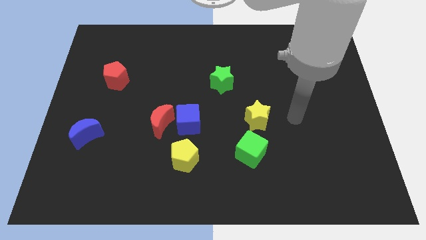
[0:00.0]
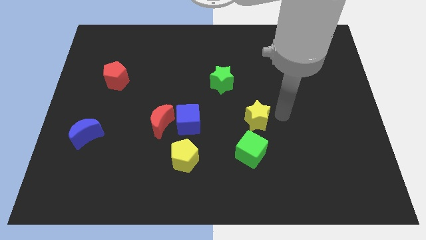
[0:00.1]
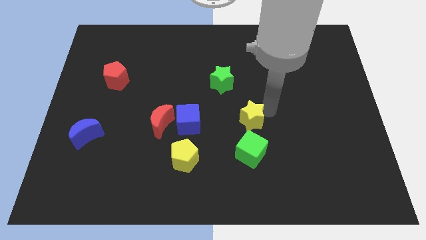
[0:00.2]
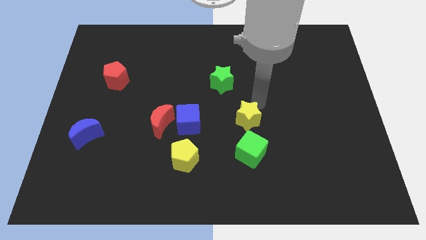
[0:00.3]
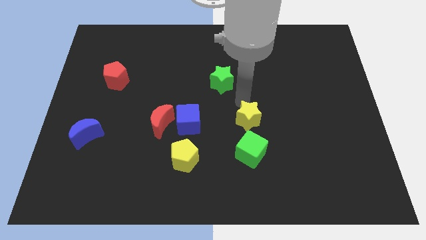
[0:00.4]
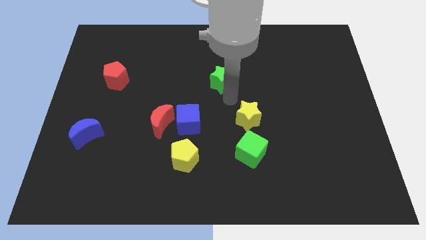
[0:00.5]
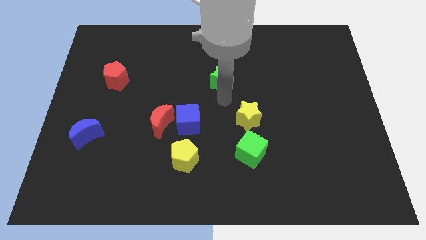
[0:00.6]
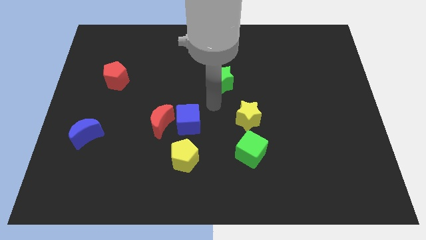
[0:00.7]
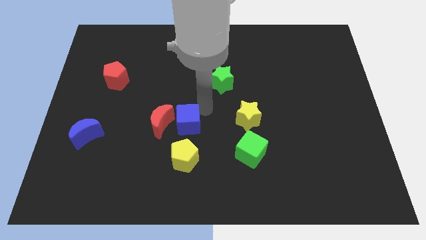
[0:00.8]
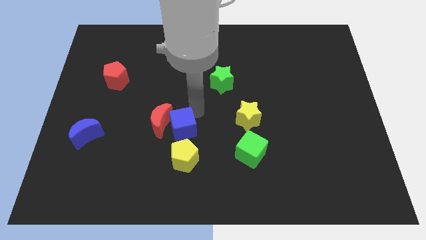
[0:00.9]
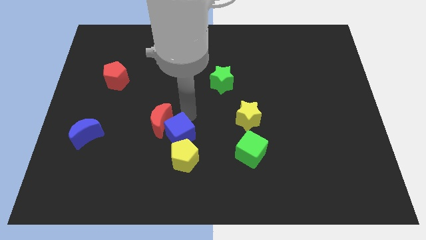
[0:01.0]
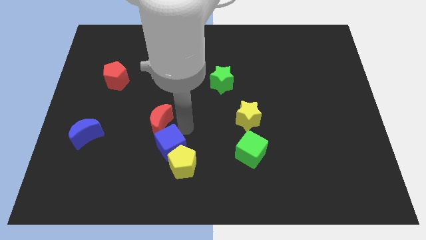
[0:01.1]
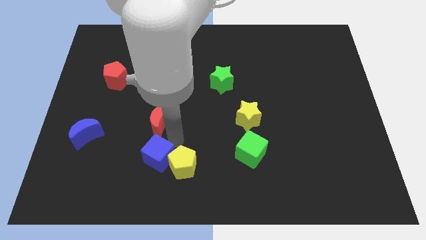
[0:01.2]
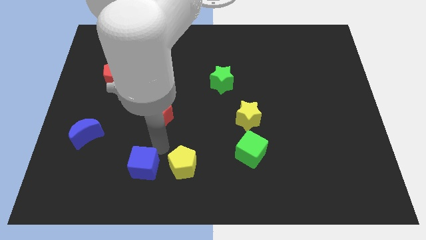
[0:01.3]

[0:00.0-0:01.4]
pull the red moon apart from the blue cube

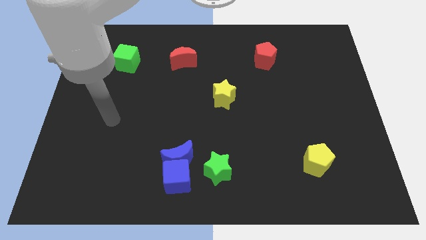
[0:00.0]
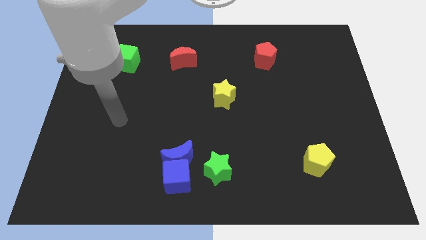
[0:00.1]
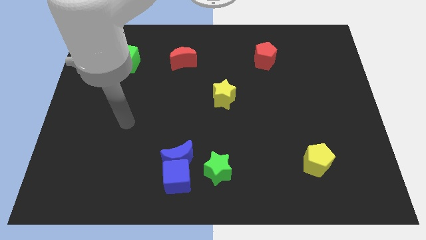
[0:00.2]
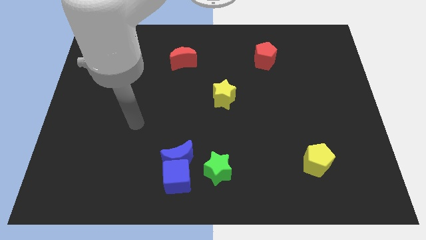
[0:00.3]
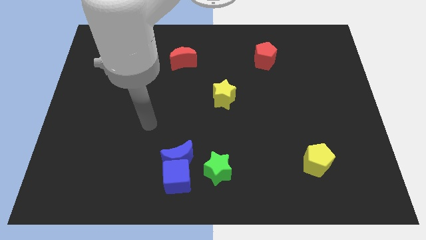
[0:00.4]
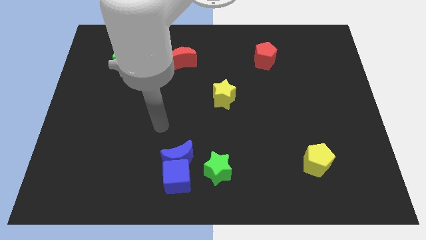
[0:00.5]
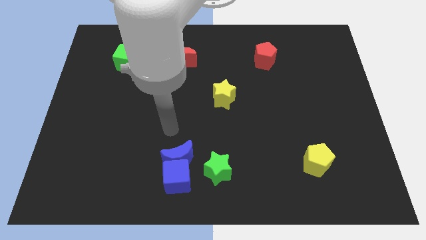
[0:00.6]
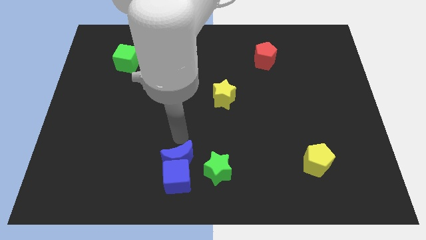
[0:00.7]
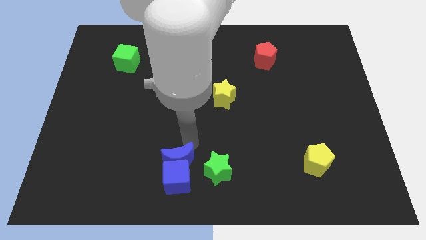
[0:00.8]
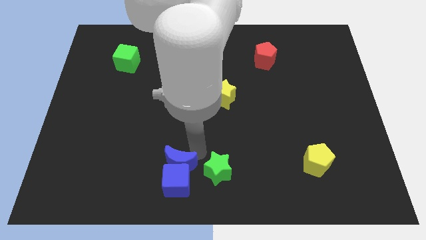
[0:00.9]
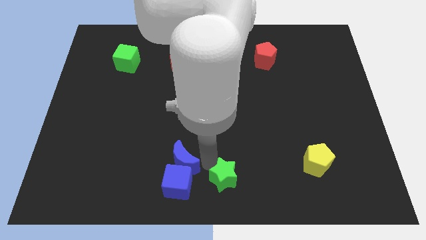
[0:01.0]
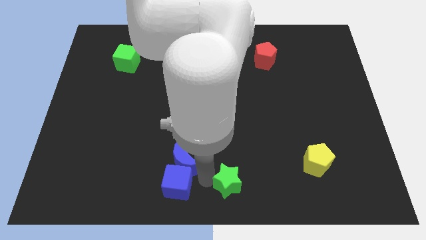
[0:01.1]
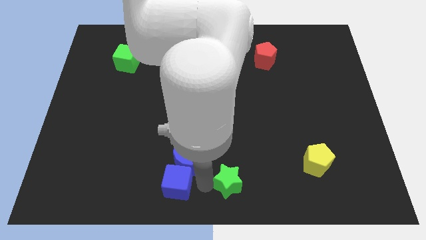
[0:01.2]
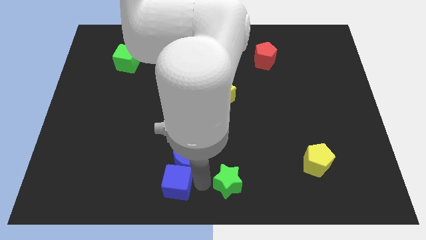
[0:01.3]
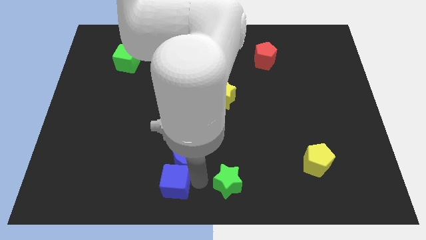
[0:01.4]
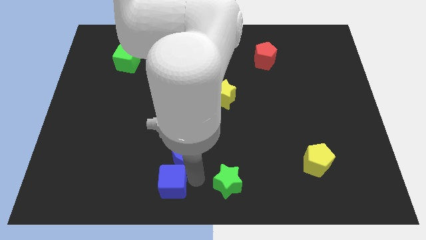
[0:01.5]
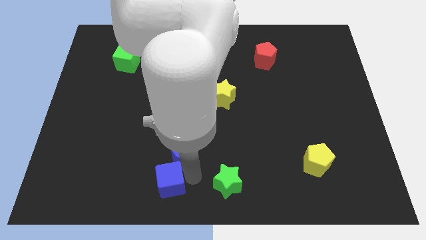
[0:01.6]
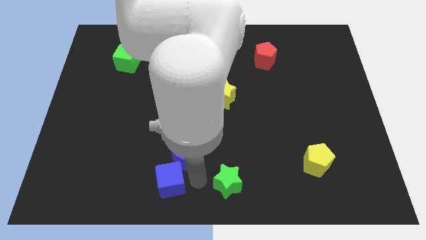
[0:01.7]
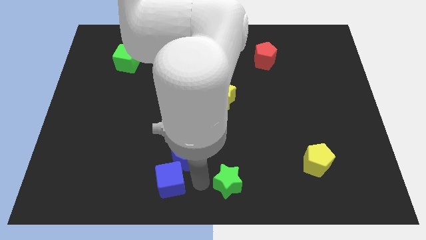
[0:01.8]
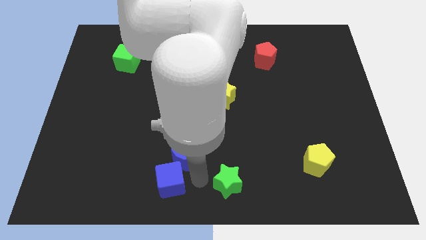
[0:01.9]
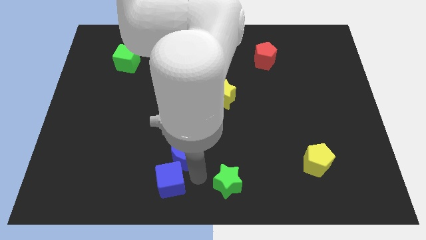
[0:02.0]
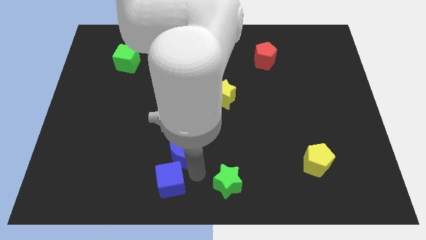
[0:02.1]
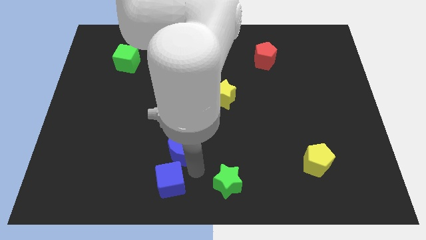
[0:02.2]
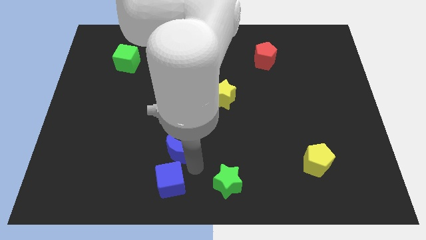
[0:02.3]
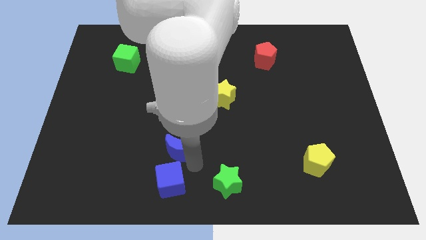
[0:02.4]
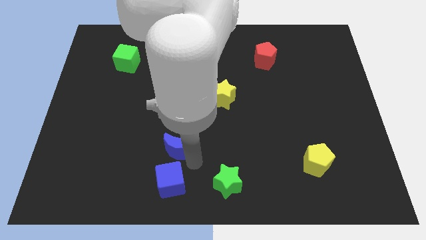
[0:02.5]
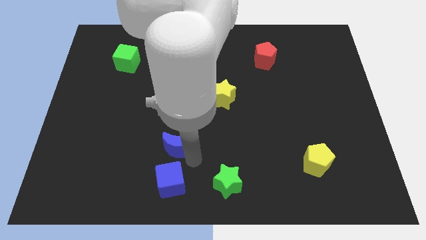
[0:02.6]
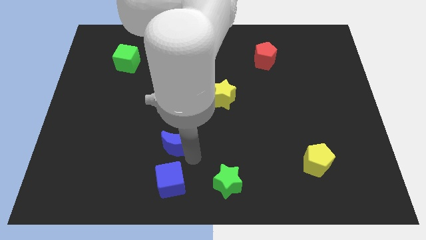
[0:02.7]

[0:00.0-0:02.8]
move the blue moon away from the blue cube and green star

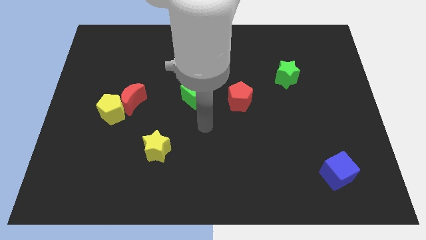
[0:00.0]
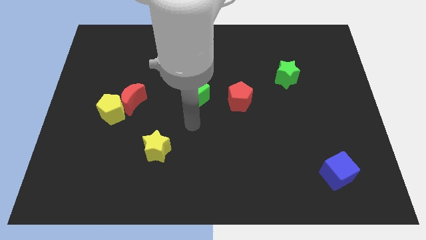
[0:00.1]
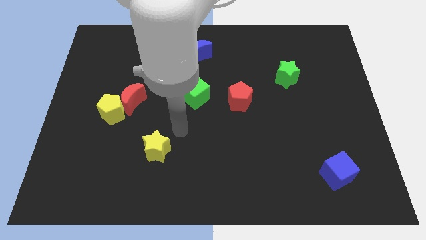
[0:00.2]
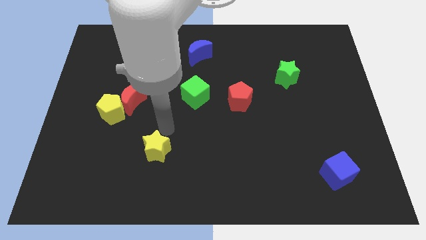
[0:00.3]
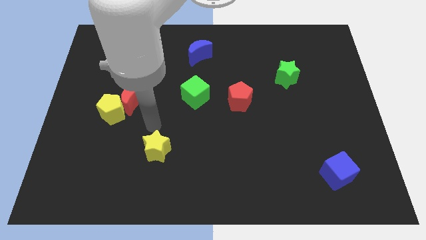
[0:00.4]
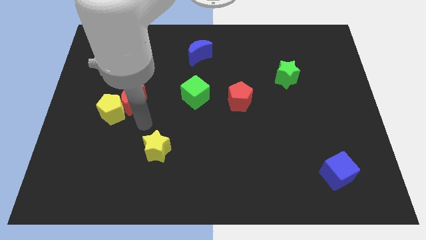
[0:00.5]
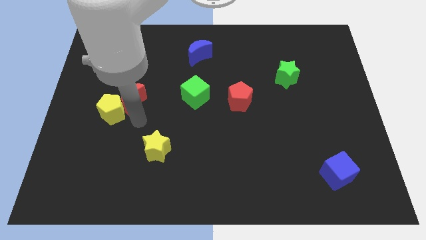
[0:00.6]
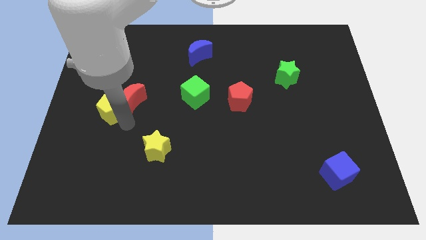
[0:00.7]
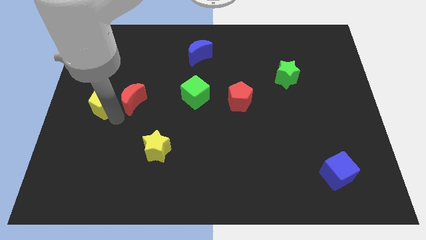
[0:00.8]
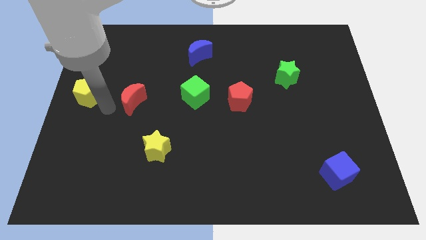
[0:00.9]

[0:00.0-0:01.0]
separate the red moon from the yellow pentagon

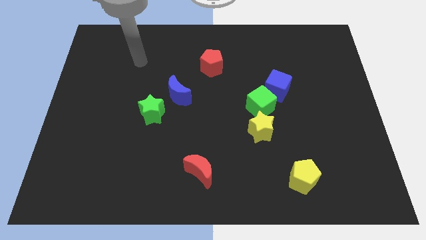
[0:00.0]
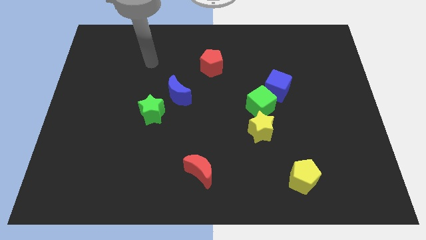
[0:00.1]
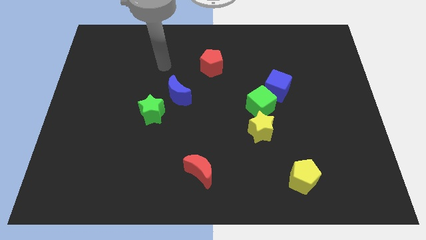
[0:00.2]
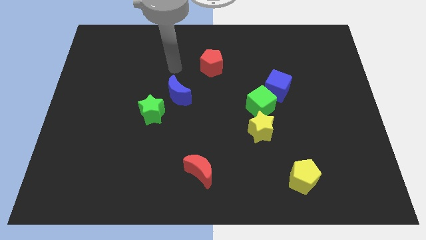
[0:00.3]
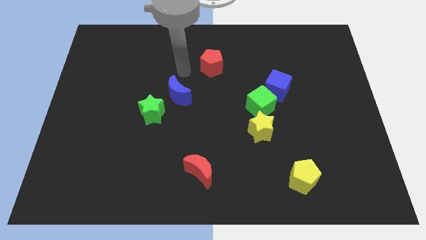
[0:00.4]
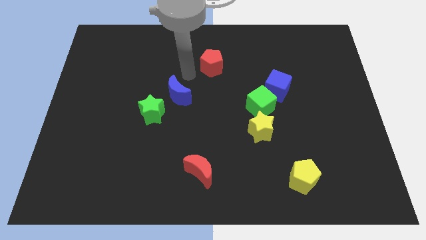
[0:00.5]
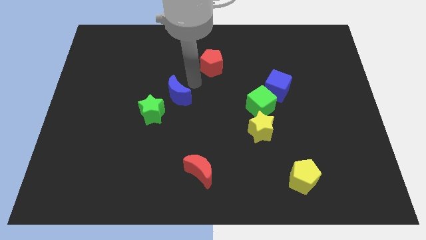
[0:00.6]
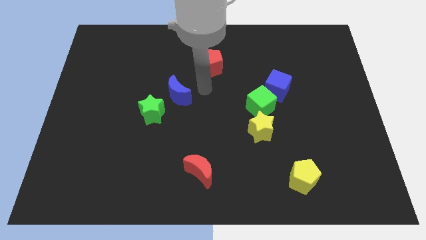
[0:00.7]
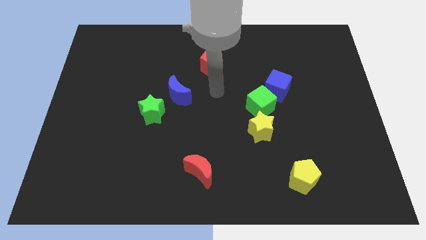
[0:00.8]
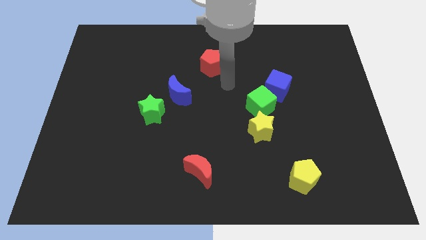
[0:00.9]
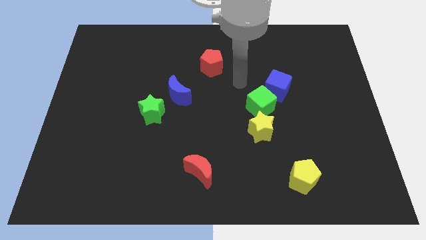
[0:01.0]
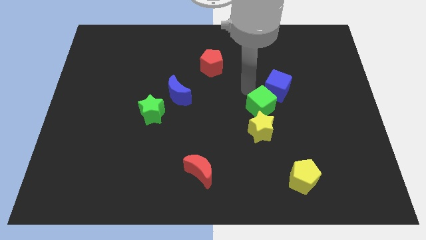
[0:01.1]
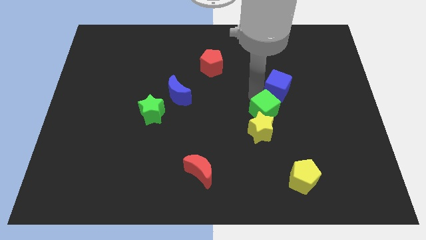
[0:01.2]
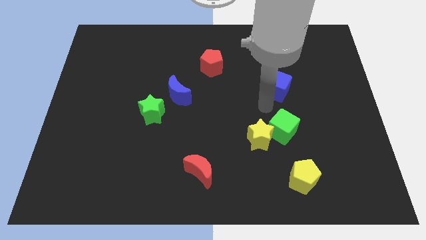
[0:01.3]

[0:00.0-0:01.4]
move the blue cube away from the green cube

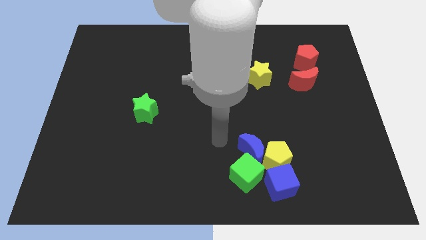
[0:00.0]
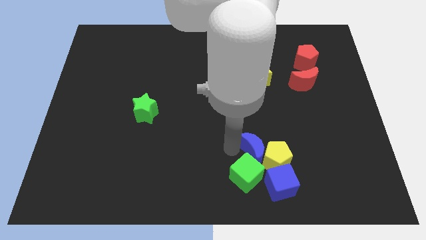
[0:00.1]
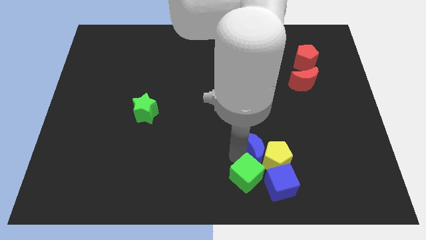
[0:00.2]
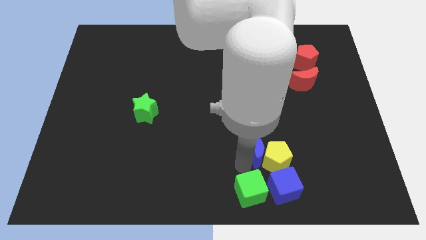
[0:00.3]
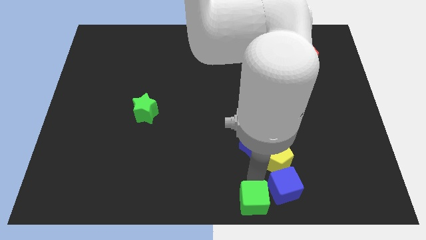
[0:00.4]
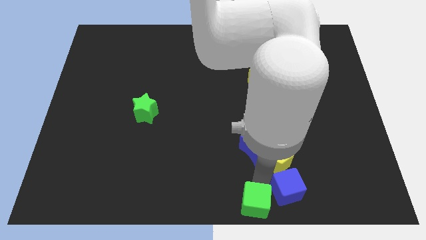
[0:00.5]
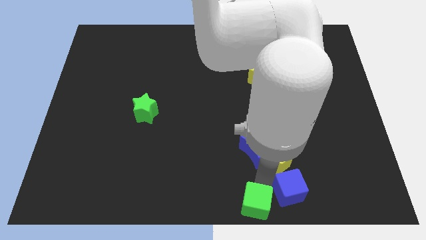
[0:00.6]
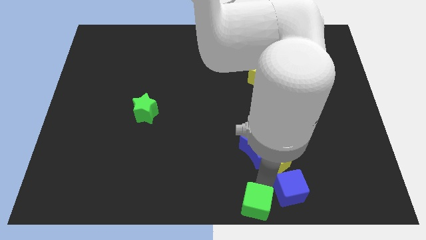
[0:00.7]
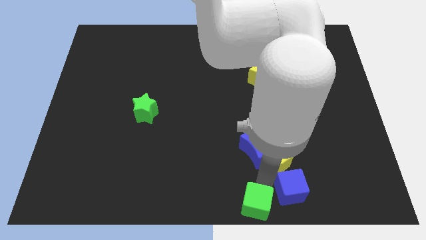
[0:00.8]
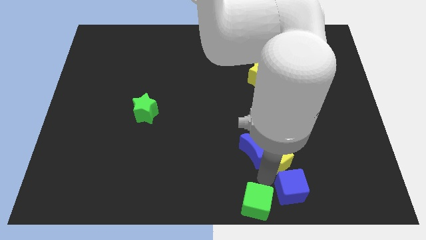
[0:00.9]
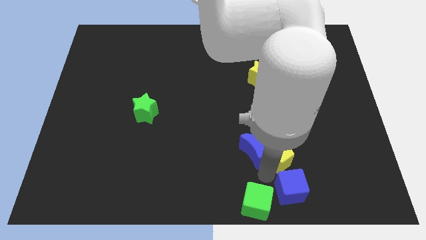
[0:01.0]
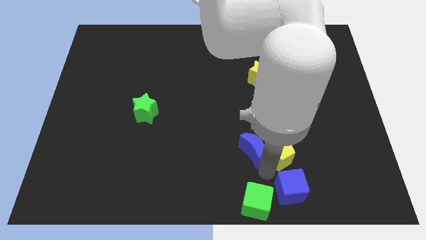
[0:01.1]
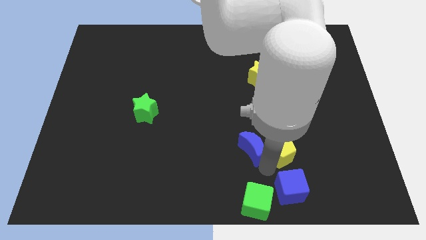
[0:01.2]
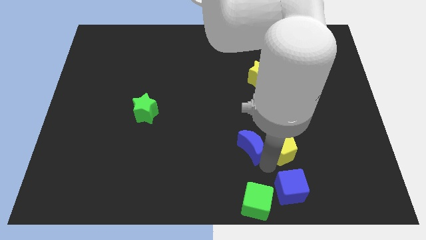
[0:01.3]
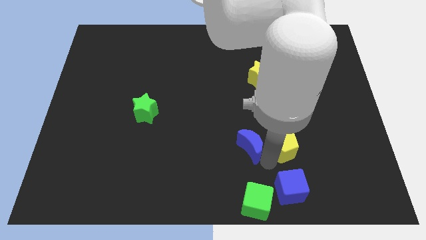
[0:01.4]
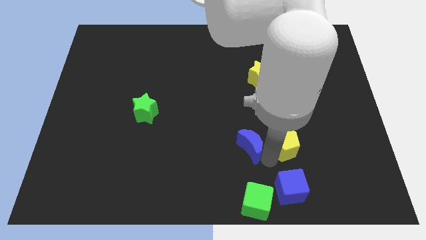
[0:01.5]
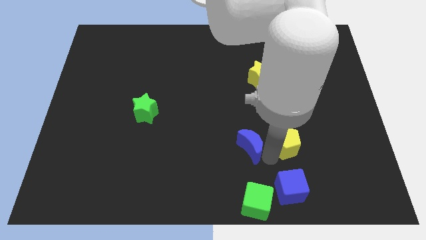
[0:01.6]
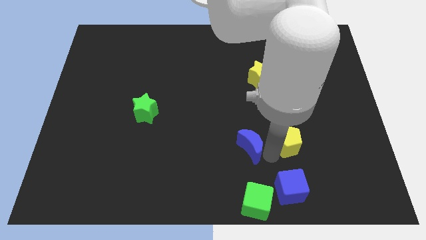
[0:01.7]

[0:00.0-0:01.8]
separate the yellow pentagon from the clump

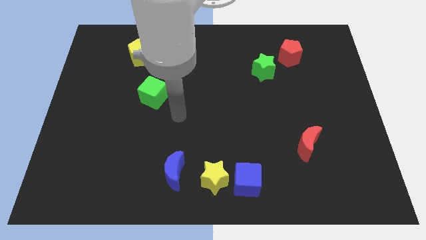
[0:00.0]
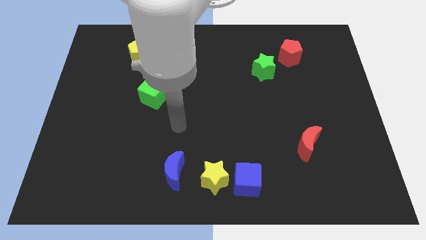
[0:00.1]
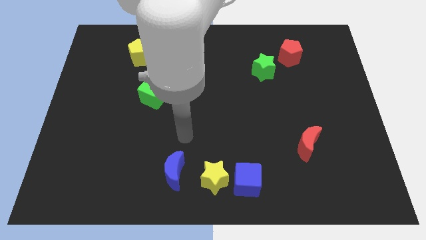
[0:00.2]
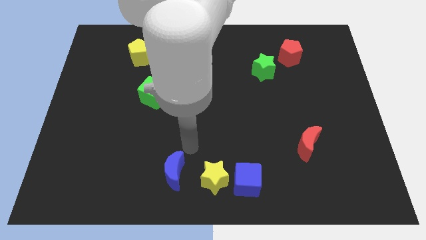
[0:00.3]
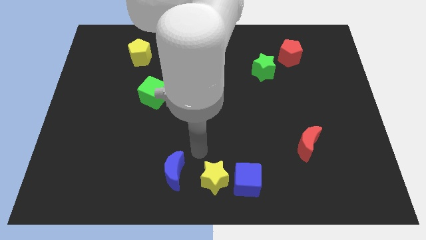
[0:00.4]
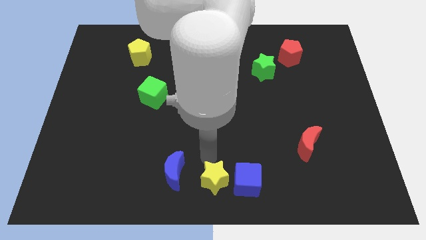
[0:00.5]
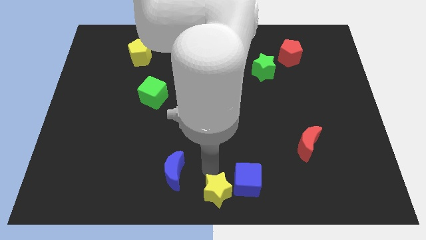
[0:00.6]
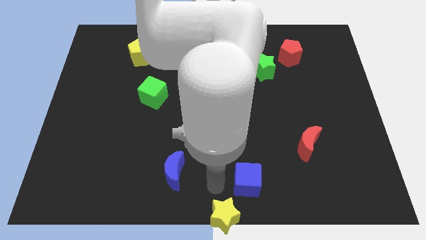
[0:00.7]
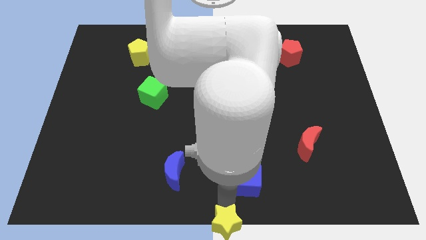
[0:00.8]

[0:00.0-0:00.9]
separate the blue cube from the yellow star
